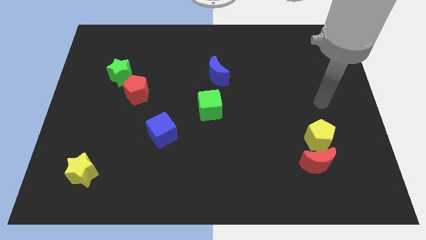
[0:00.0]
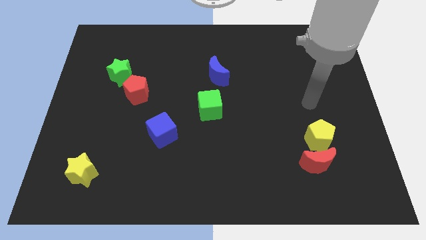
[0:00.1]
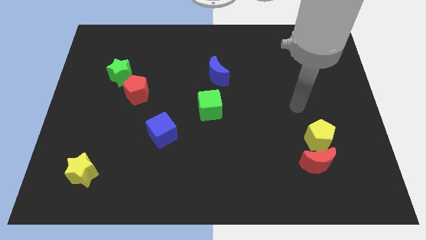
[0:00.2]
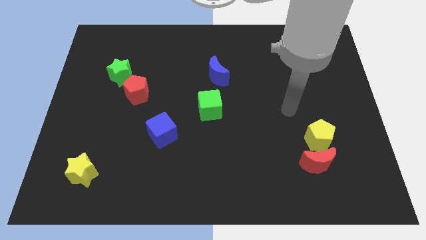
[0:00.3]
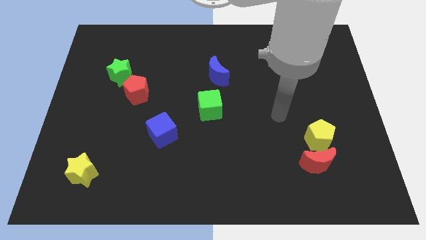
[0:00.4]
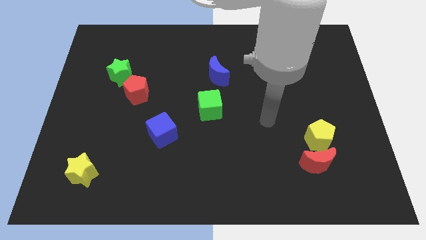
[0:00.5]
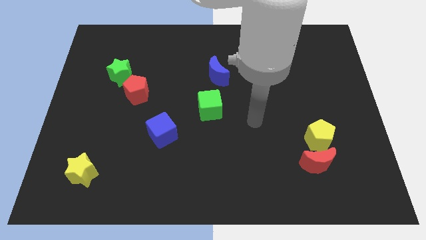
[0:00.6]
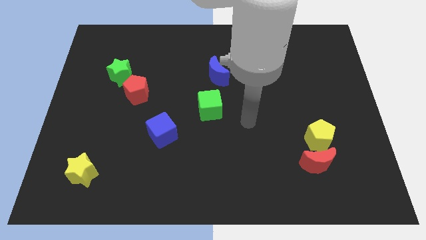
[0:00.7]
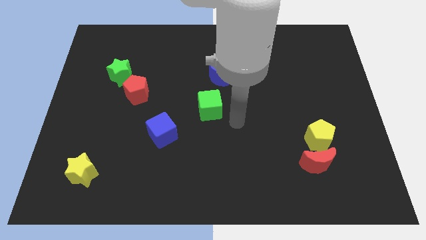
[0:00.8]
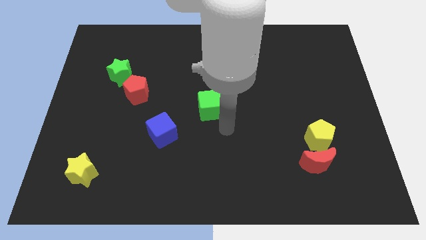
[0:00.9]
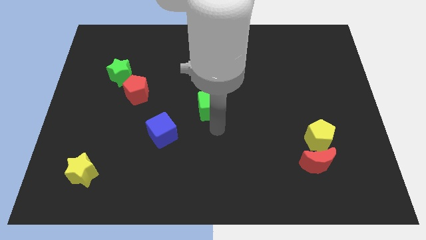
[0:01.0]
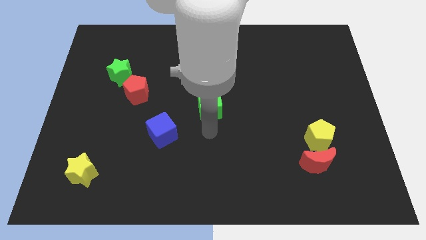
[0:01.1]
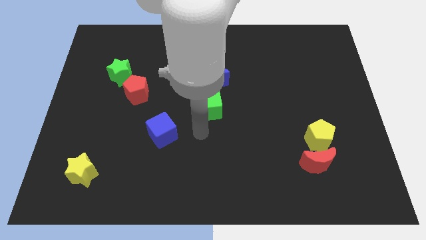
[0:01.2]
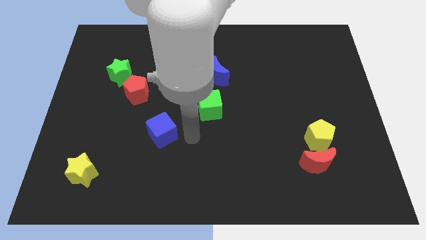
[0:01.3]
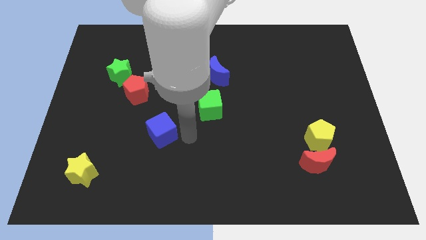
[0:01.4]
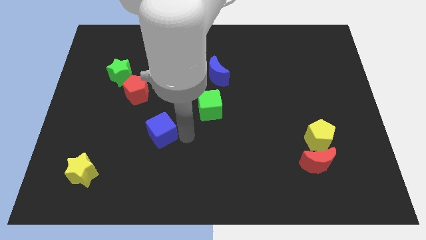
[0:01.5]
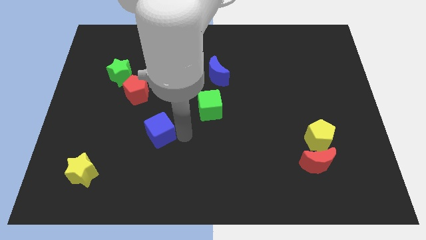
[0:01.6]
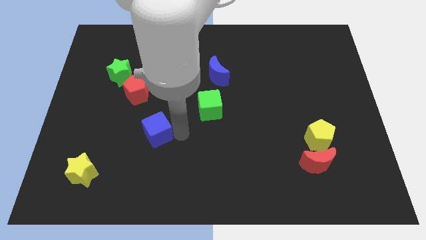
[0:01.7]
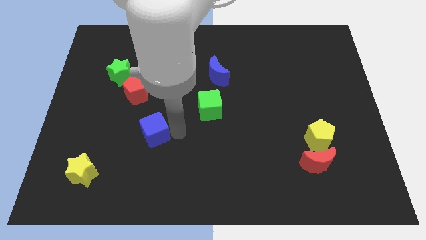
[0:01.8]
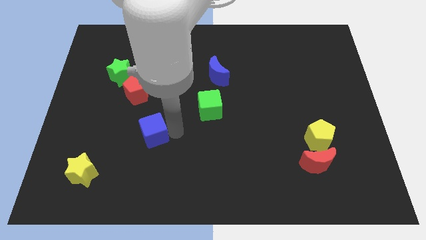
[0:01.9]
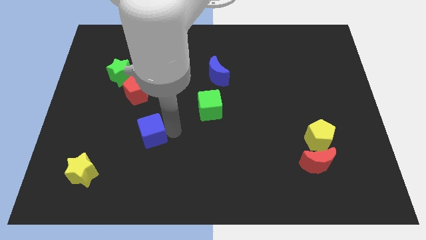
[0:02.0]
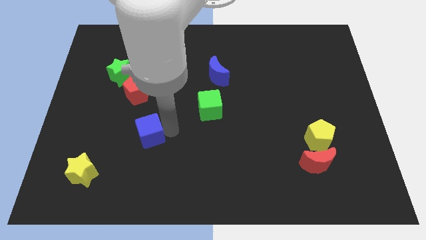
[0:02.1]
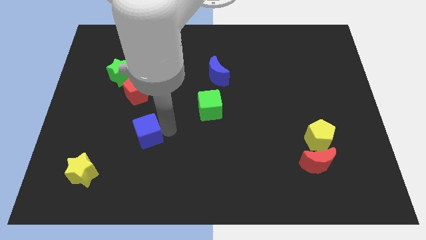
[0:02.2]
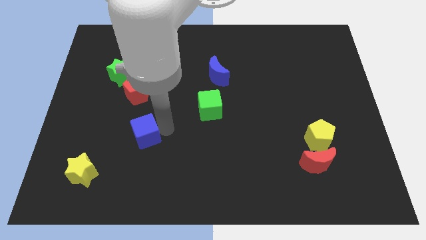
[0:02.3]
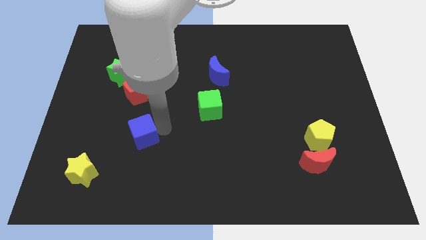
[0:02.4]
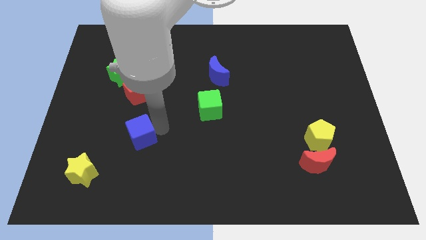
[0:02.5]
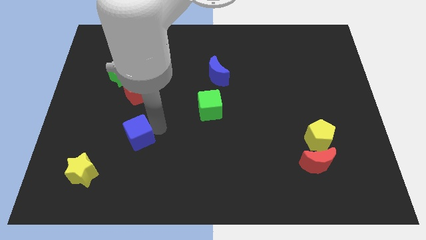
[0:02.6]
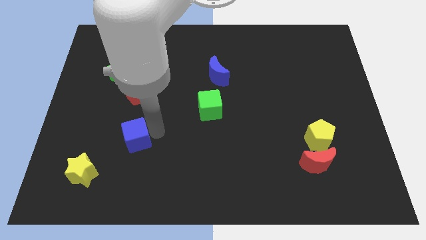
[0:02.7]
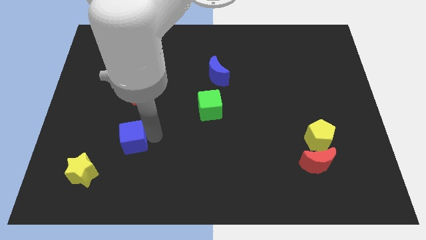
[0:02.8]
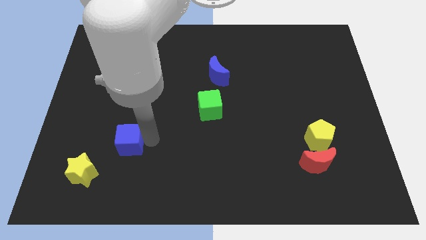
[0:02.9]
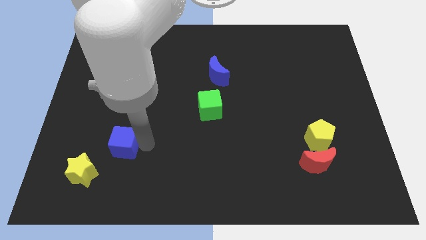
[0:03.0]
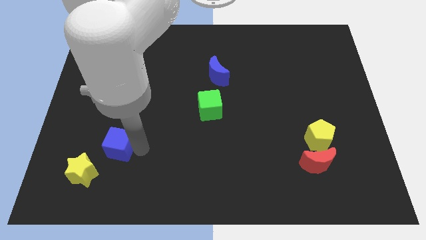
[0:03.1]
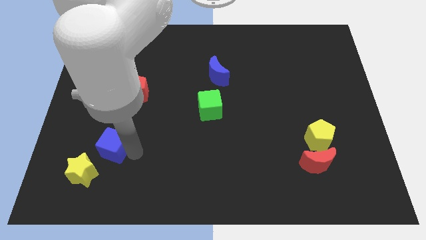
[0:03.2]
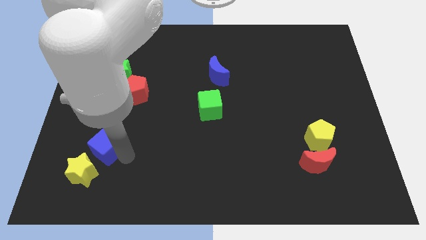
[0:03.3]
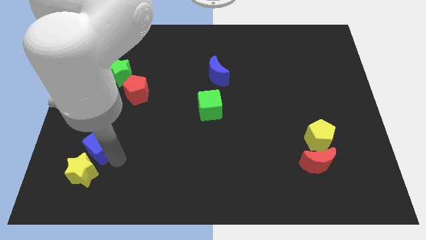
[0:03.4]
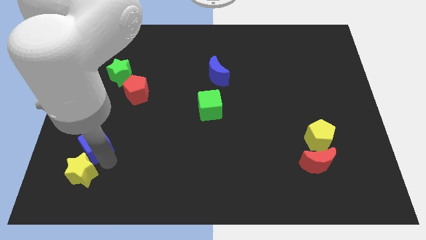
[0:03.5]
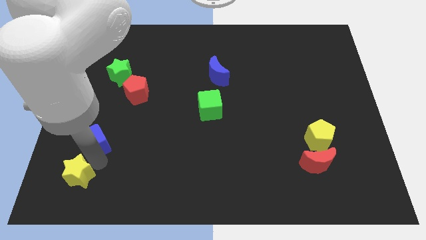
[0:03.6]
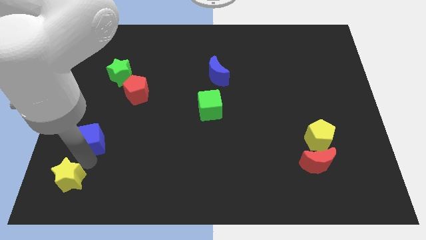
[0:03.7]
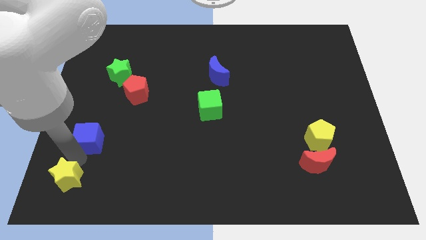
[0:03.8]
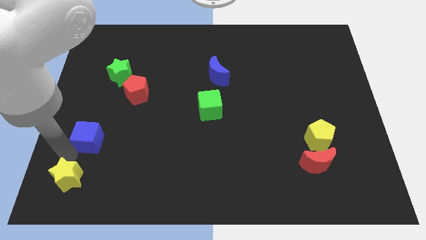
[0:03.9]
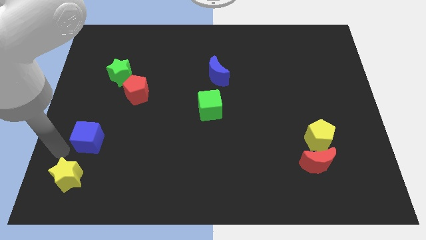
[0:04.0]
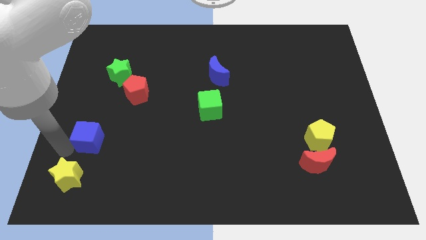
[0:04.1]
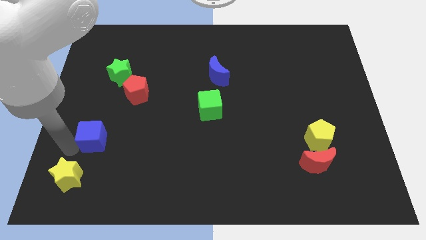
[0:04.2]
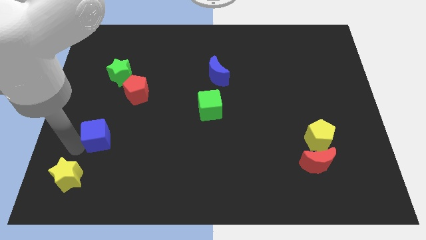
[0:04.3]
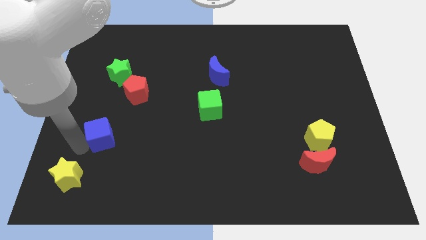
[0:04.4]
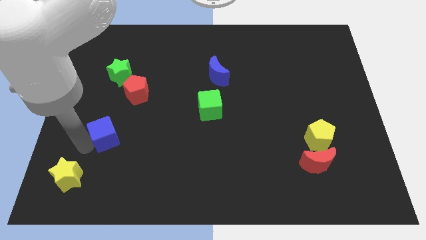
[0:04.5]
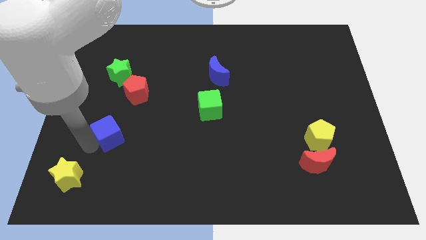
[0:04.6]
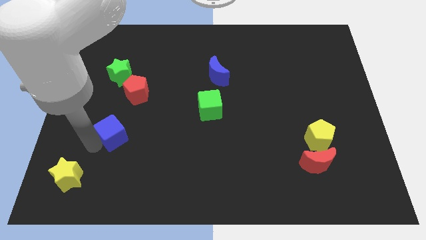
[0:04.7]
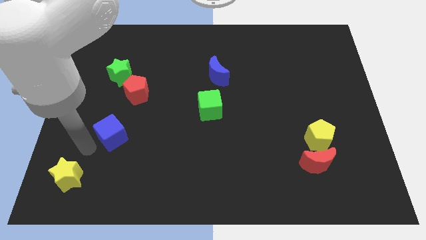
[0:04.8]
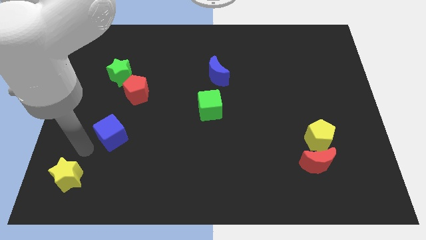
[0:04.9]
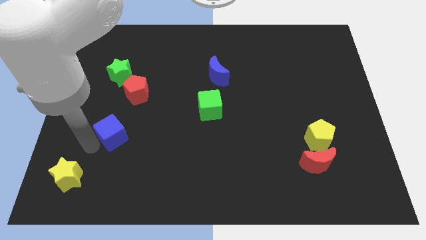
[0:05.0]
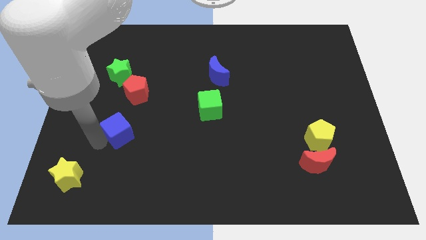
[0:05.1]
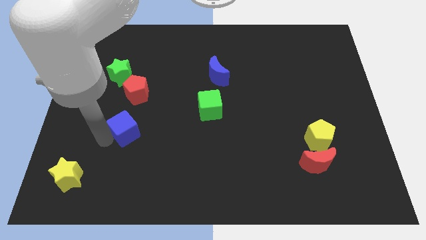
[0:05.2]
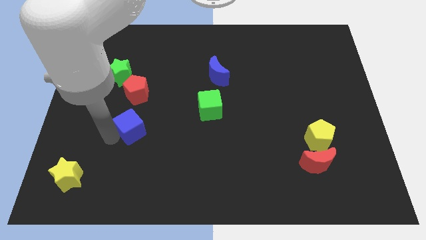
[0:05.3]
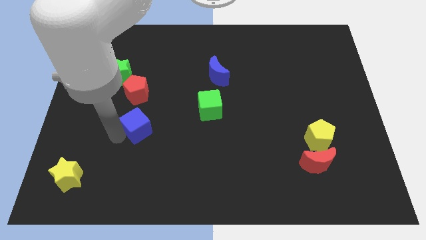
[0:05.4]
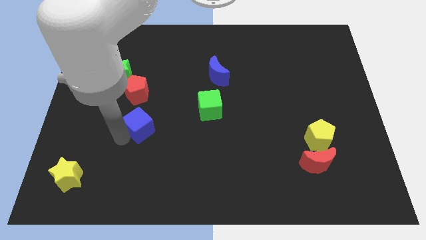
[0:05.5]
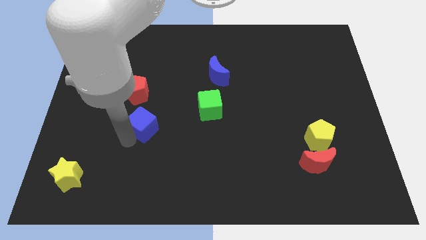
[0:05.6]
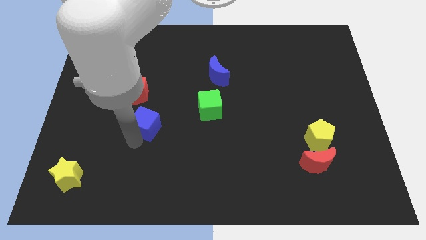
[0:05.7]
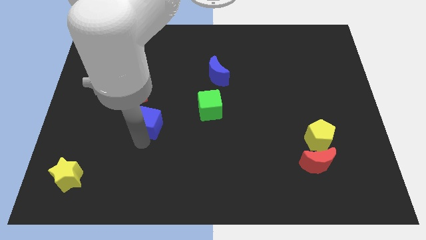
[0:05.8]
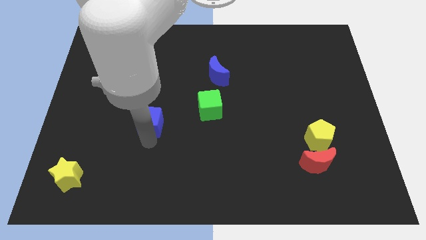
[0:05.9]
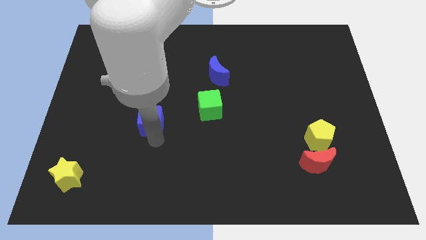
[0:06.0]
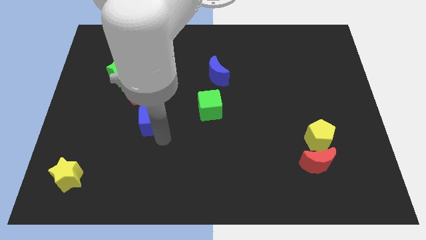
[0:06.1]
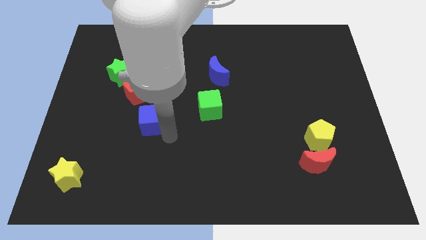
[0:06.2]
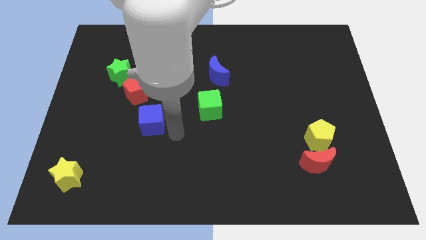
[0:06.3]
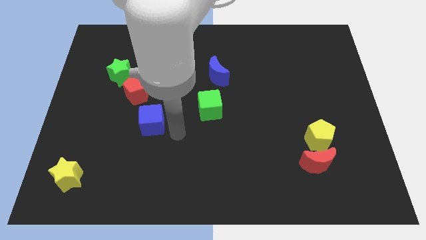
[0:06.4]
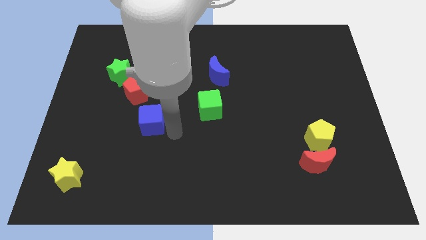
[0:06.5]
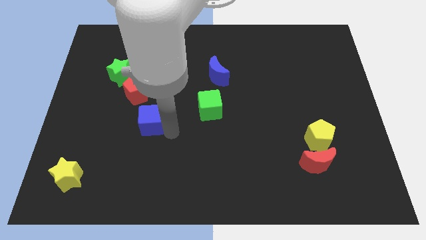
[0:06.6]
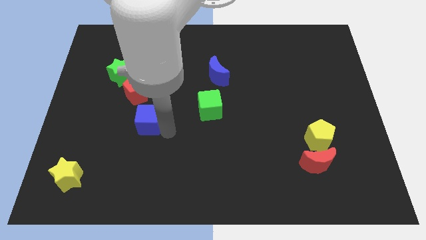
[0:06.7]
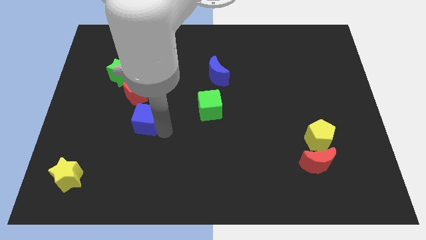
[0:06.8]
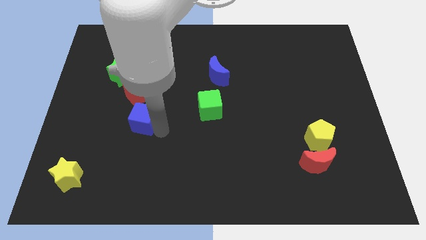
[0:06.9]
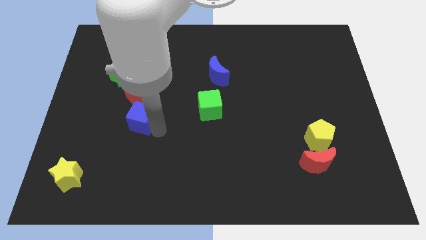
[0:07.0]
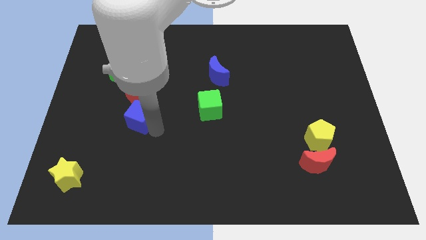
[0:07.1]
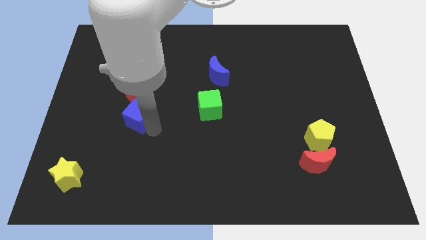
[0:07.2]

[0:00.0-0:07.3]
slide the blue cube a little upwards and to the left diagonally

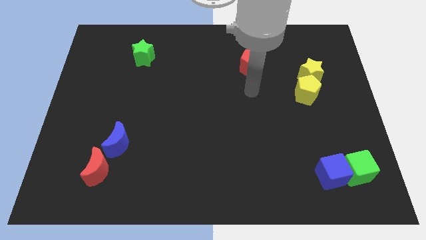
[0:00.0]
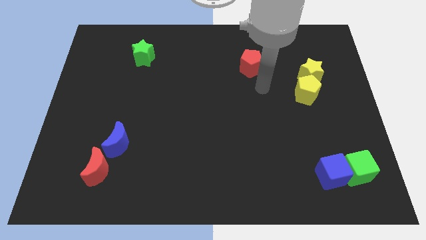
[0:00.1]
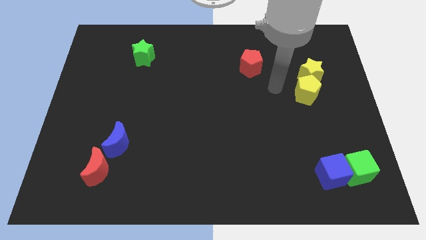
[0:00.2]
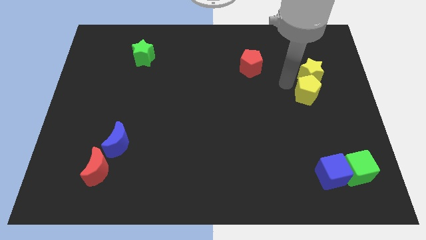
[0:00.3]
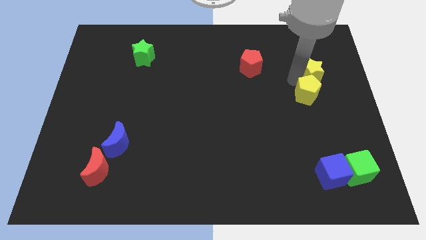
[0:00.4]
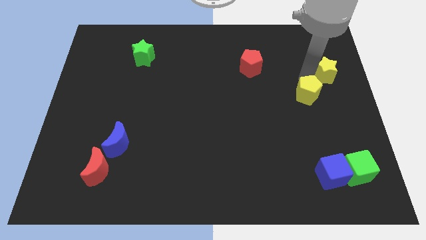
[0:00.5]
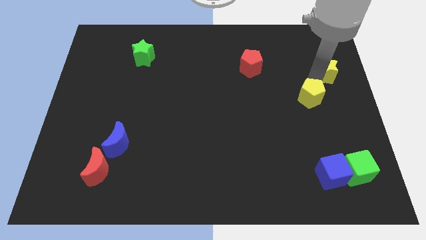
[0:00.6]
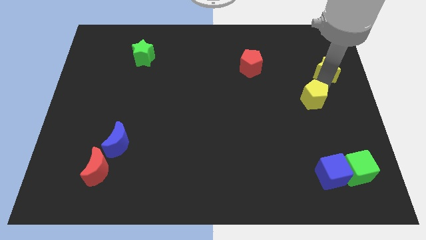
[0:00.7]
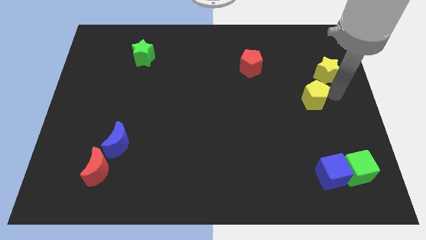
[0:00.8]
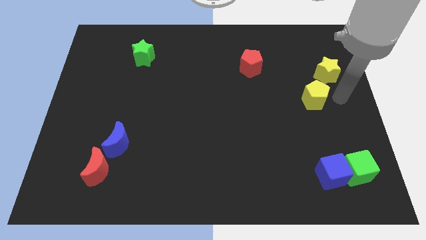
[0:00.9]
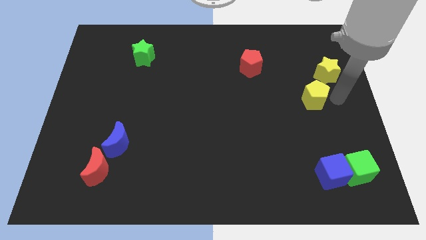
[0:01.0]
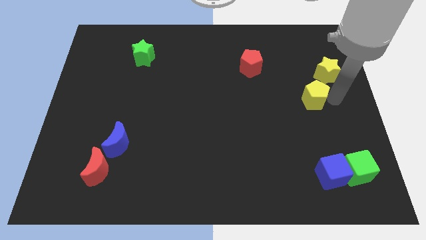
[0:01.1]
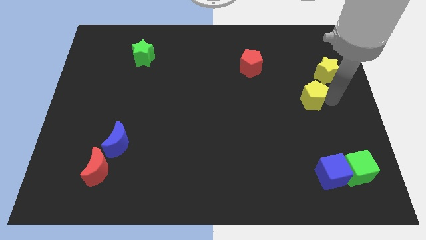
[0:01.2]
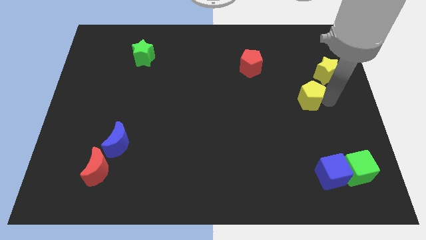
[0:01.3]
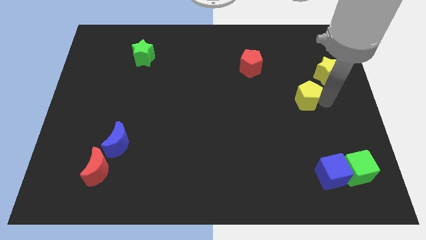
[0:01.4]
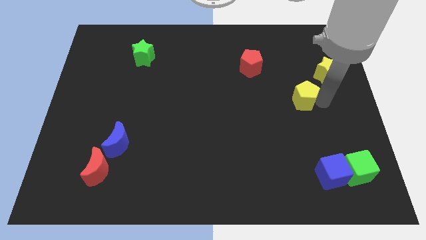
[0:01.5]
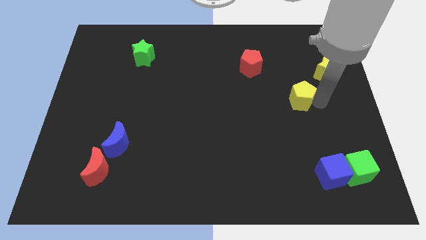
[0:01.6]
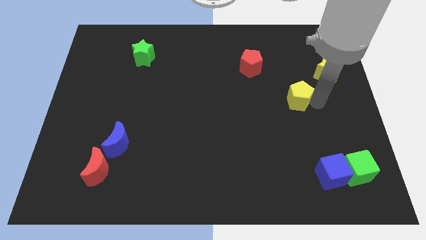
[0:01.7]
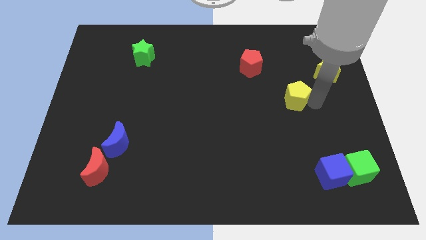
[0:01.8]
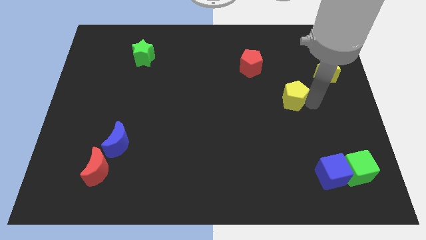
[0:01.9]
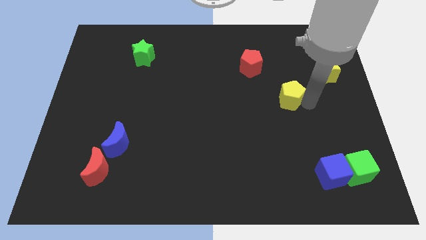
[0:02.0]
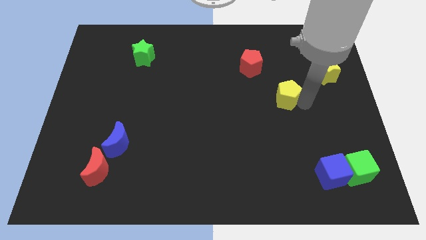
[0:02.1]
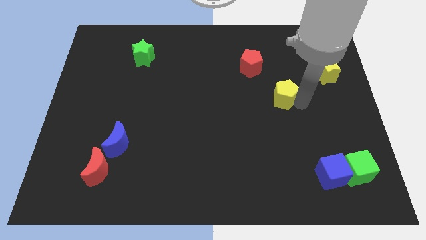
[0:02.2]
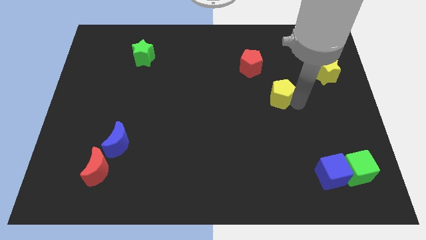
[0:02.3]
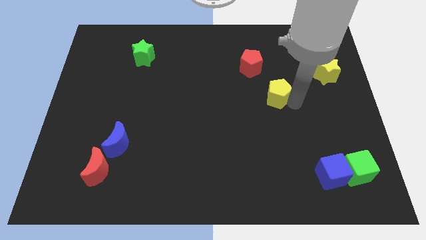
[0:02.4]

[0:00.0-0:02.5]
slide the yellow pentagon somewhat to the left
